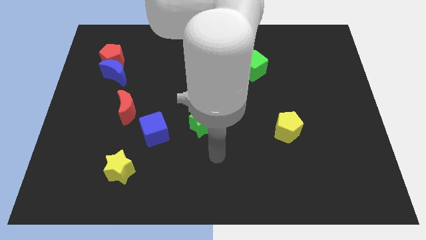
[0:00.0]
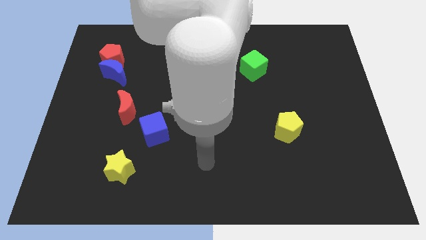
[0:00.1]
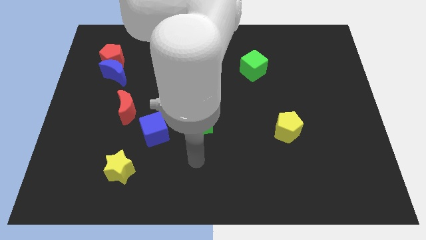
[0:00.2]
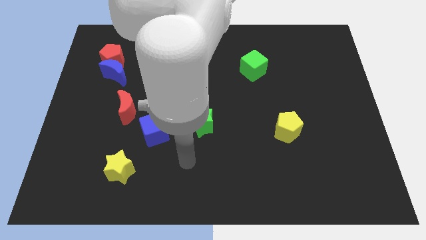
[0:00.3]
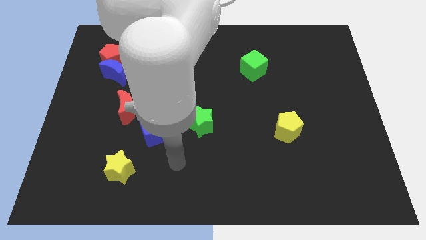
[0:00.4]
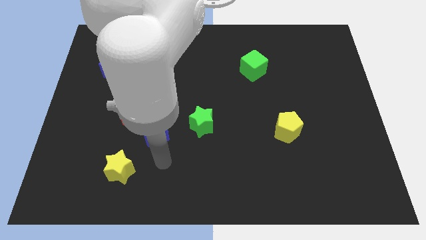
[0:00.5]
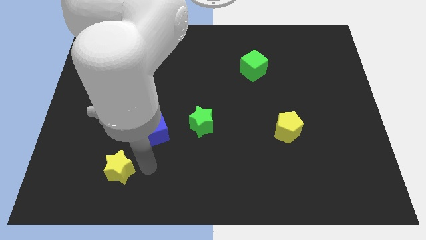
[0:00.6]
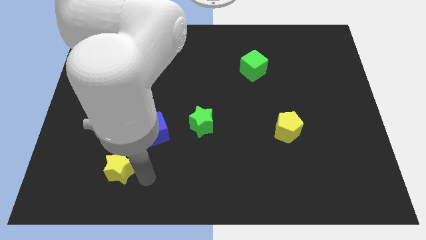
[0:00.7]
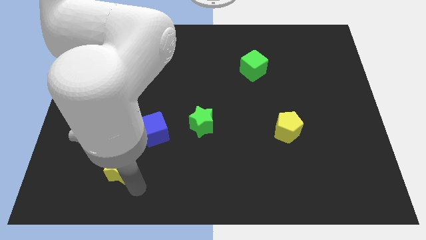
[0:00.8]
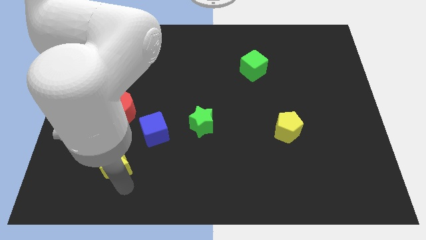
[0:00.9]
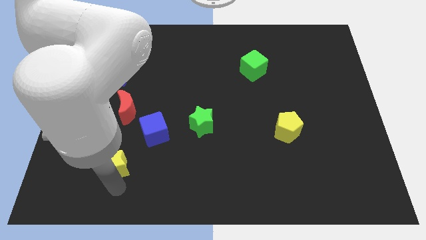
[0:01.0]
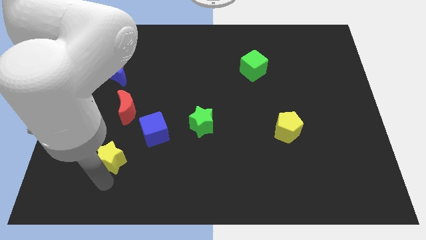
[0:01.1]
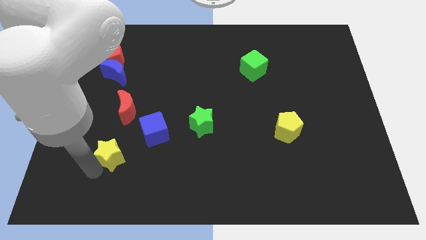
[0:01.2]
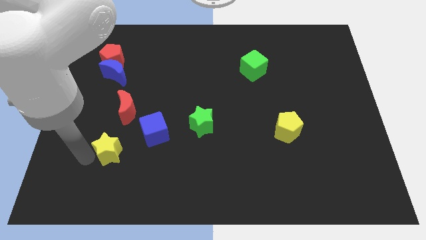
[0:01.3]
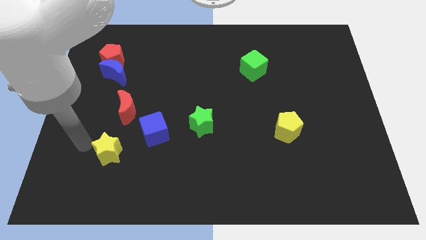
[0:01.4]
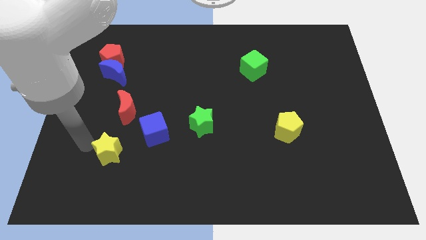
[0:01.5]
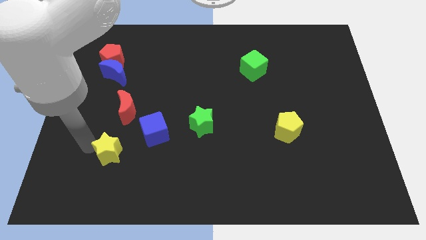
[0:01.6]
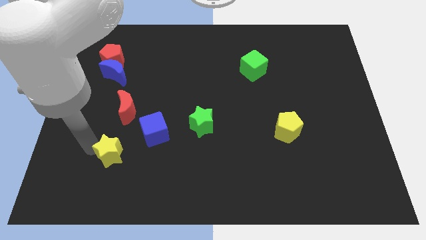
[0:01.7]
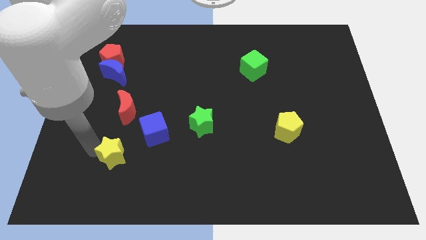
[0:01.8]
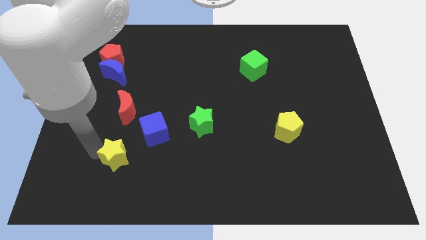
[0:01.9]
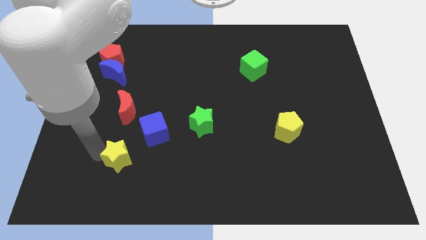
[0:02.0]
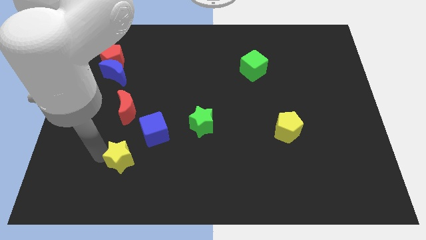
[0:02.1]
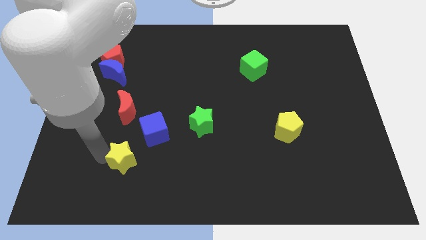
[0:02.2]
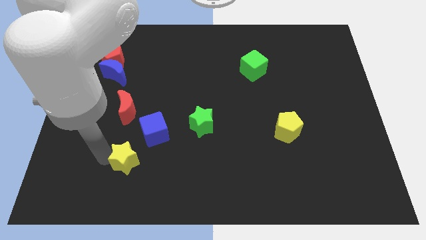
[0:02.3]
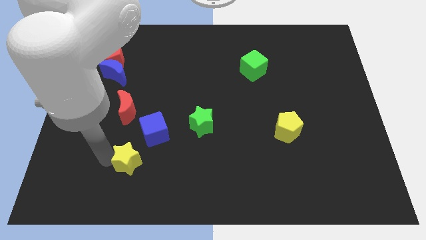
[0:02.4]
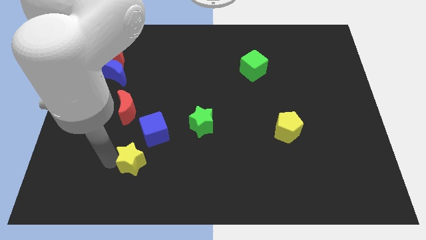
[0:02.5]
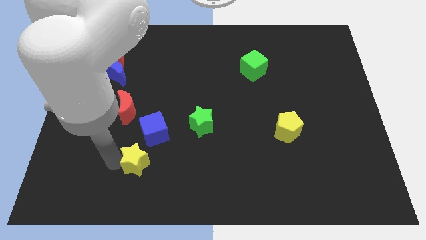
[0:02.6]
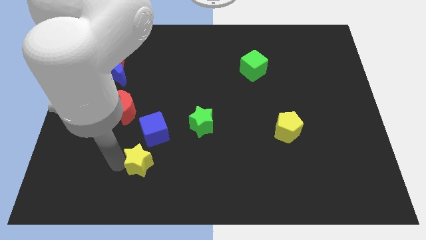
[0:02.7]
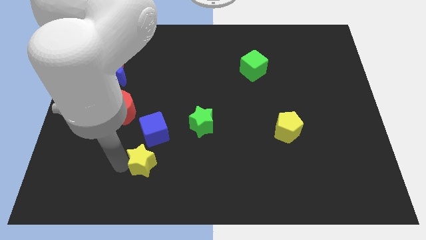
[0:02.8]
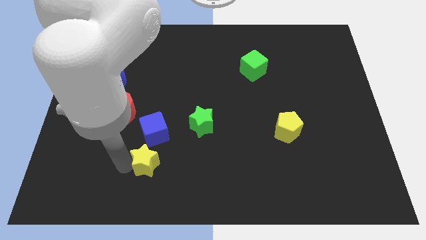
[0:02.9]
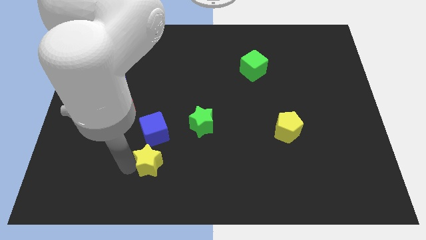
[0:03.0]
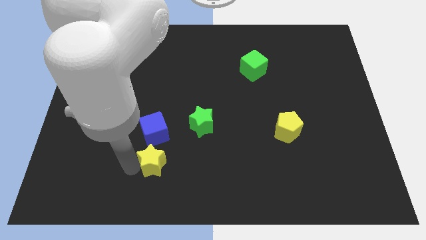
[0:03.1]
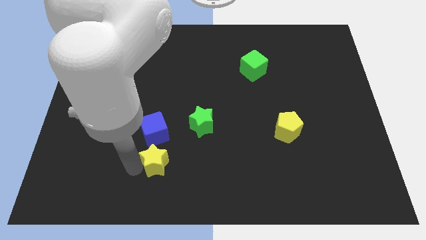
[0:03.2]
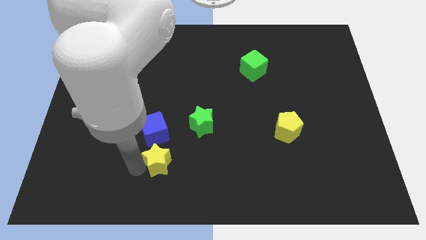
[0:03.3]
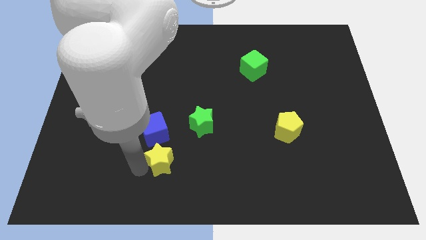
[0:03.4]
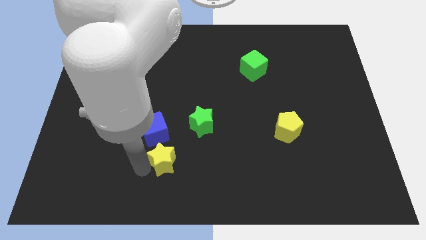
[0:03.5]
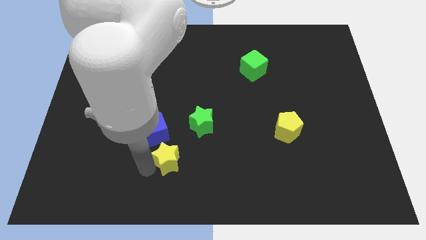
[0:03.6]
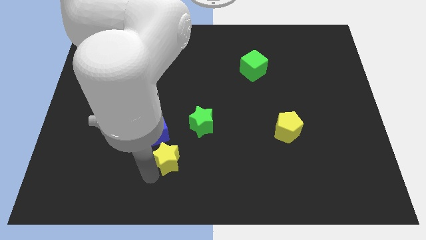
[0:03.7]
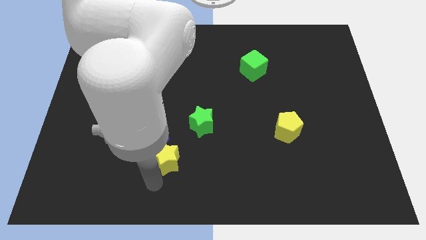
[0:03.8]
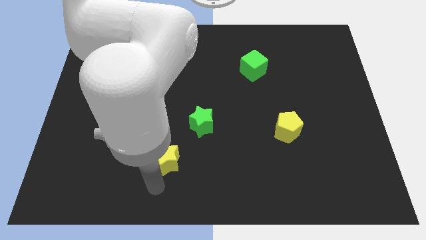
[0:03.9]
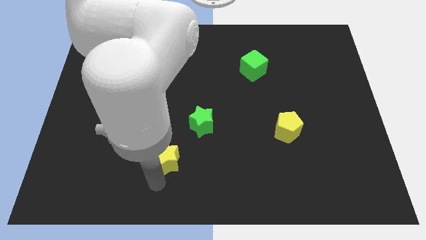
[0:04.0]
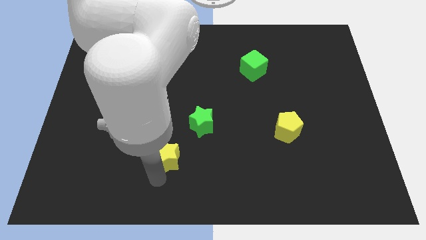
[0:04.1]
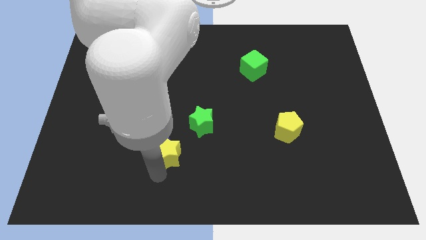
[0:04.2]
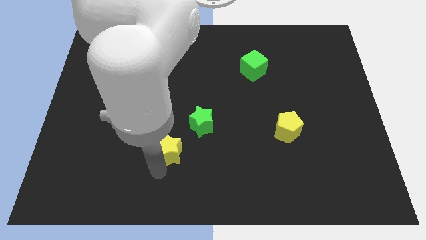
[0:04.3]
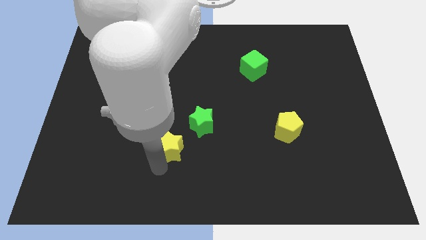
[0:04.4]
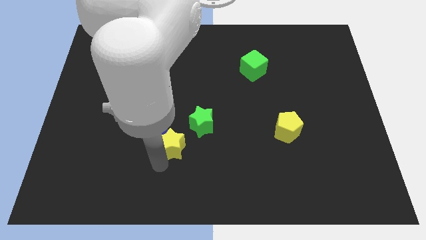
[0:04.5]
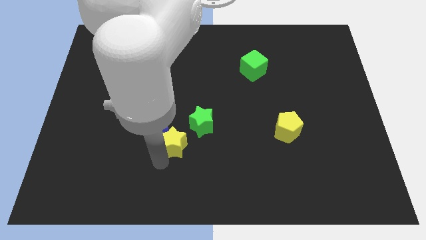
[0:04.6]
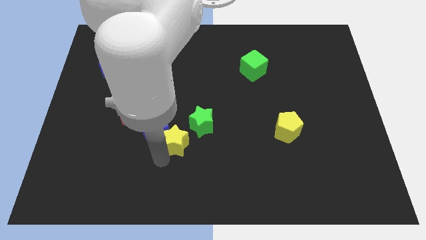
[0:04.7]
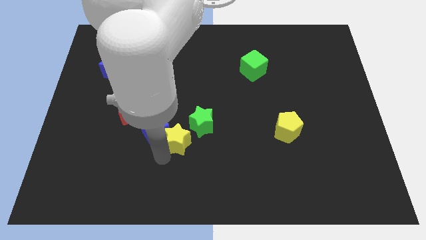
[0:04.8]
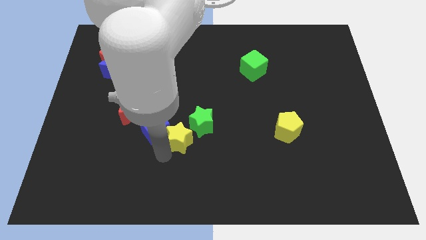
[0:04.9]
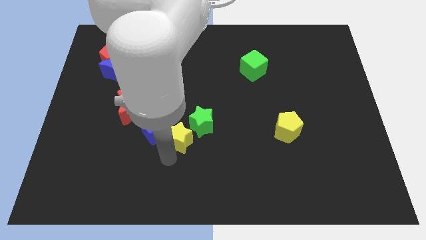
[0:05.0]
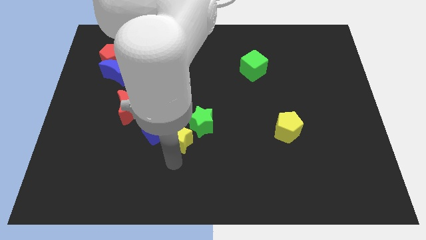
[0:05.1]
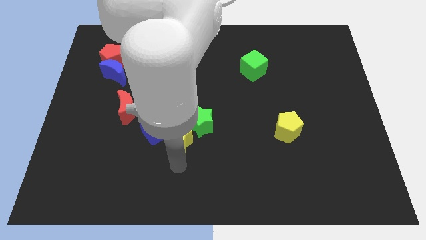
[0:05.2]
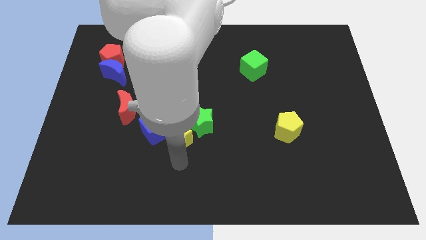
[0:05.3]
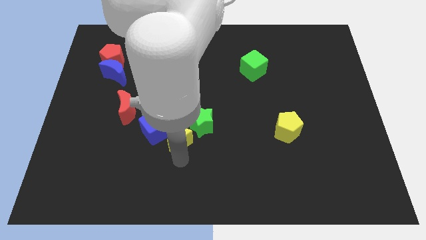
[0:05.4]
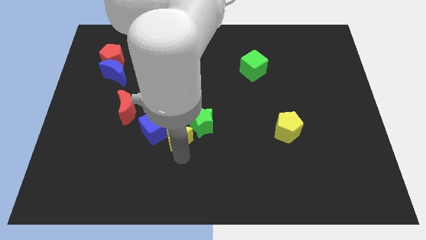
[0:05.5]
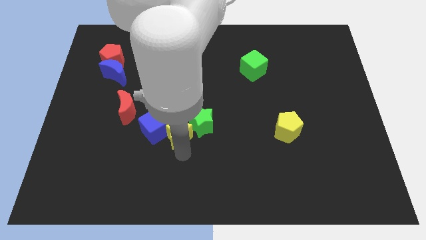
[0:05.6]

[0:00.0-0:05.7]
slide the yellow star to the center of the board

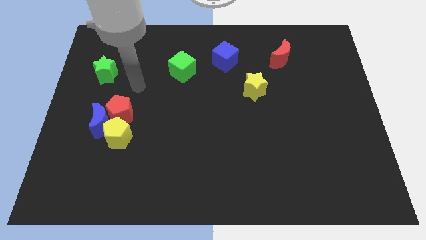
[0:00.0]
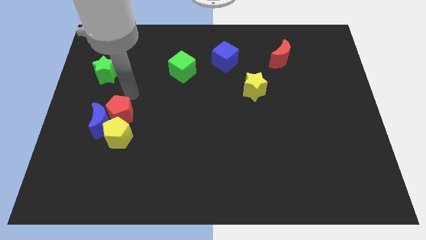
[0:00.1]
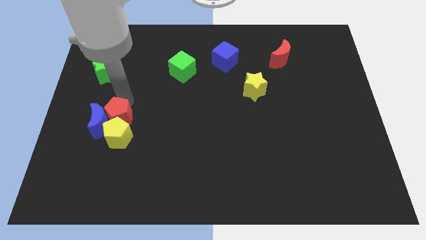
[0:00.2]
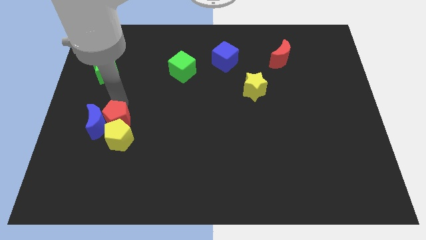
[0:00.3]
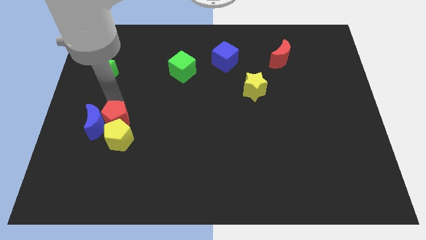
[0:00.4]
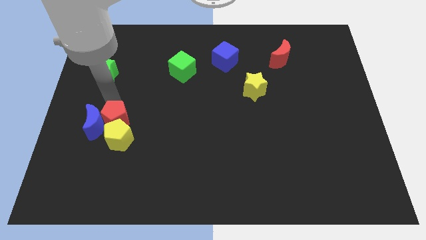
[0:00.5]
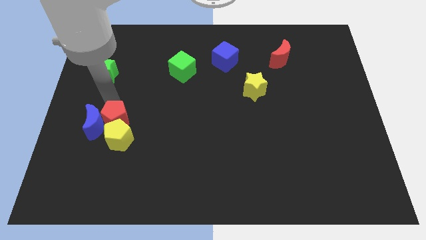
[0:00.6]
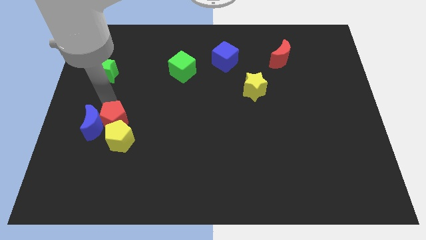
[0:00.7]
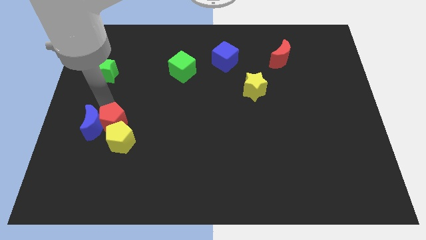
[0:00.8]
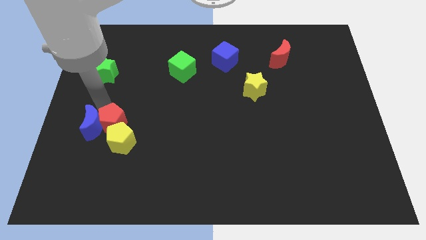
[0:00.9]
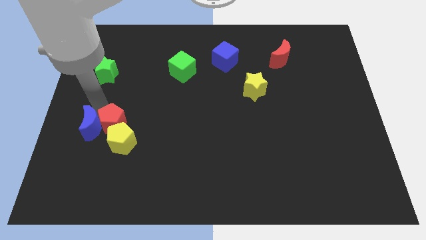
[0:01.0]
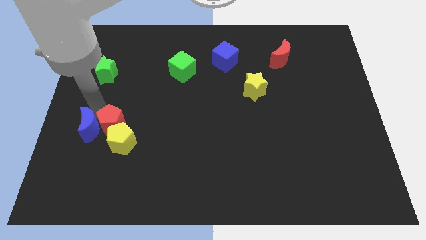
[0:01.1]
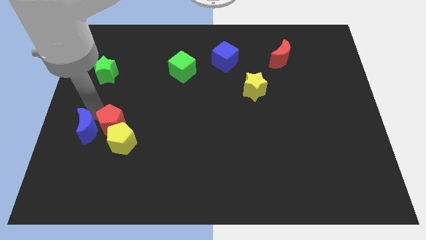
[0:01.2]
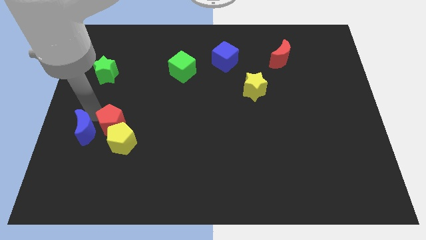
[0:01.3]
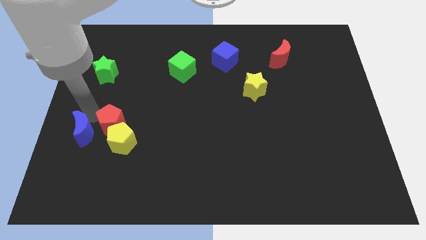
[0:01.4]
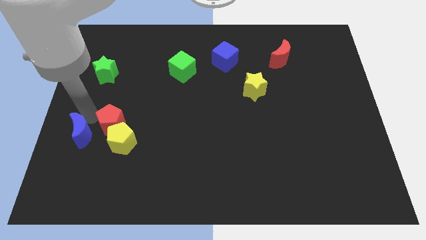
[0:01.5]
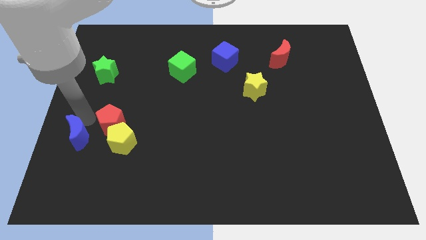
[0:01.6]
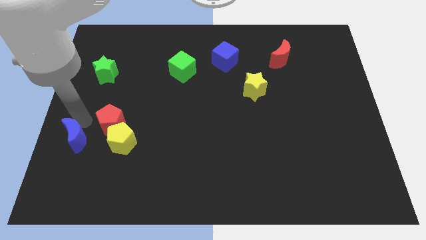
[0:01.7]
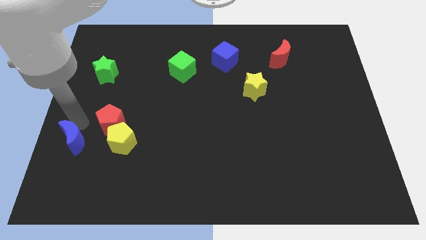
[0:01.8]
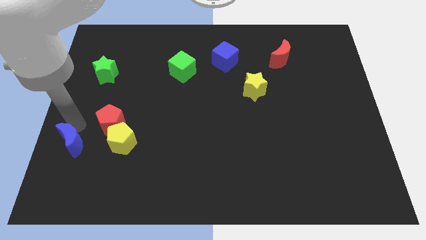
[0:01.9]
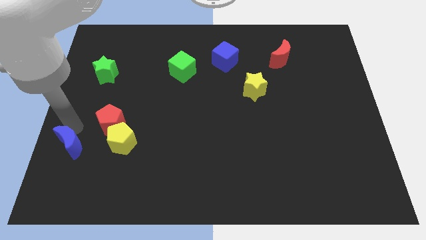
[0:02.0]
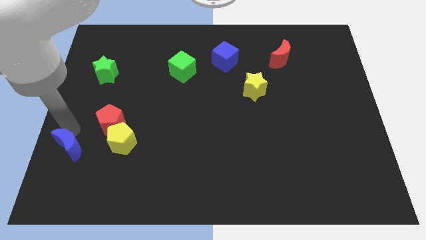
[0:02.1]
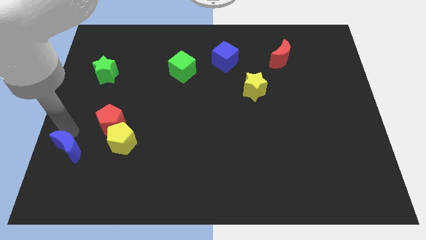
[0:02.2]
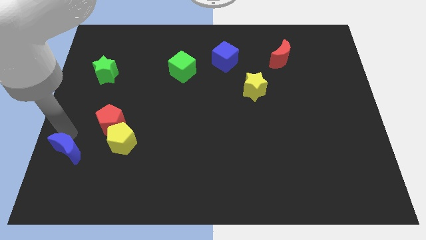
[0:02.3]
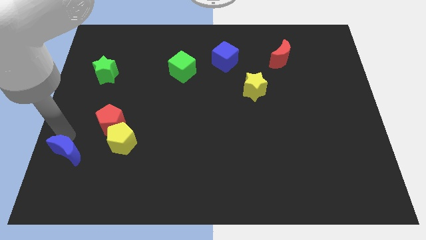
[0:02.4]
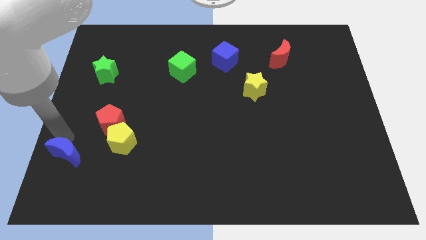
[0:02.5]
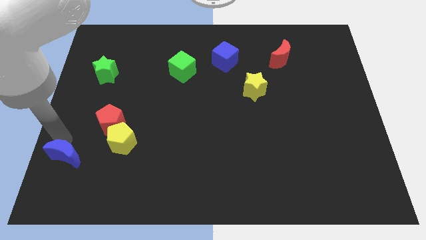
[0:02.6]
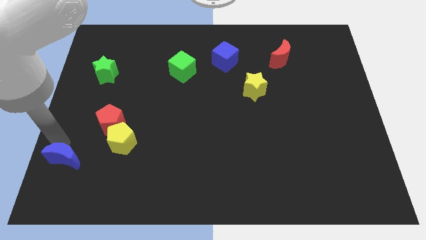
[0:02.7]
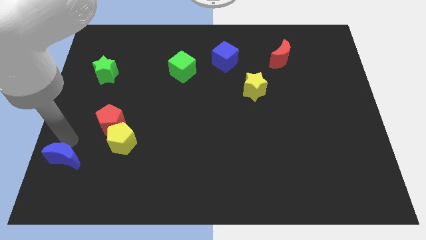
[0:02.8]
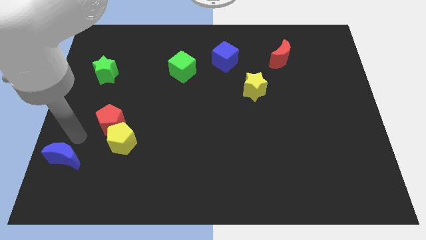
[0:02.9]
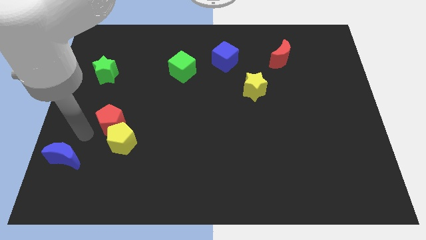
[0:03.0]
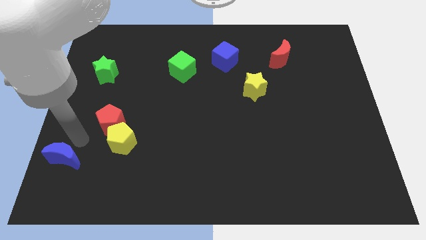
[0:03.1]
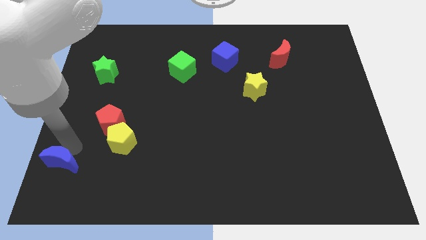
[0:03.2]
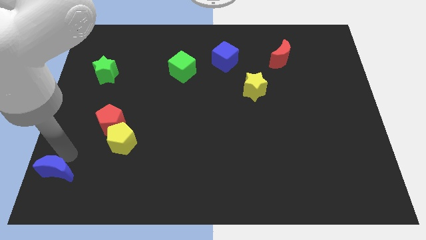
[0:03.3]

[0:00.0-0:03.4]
push the blue moon to the lower left corner
